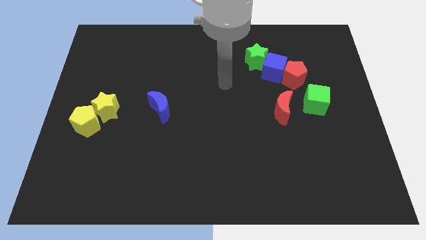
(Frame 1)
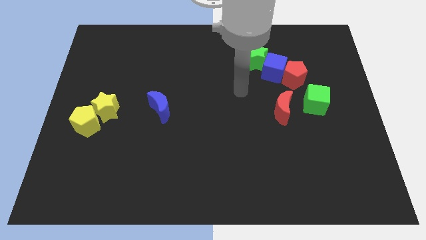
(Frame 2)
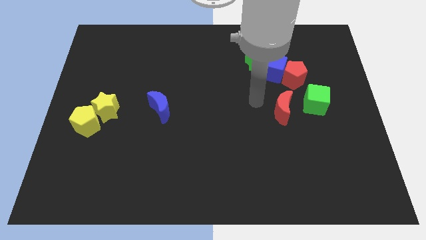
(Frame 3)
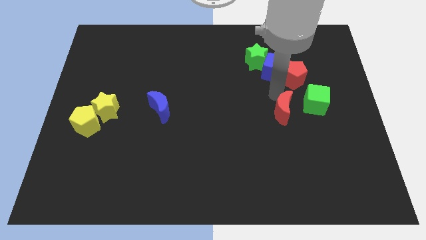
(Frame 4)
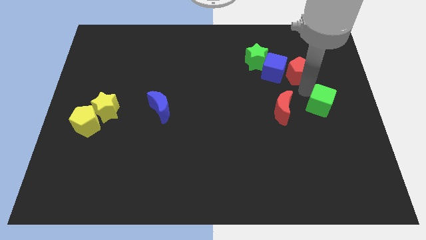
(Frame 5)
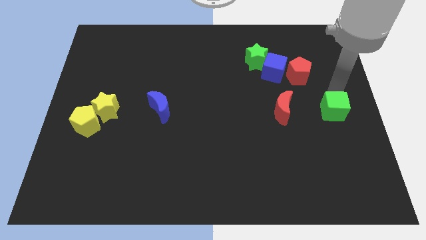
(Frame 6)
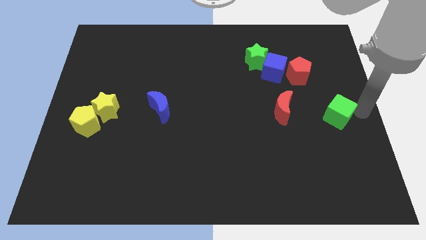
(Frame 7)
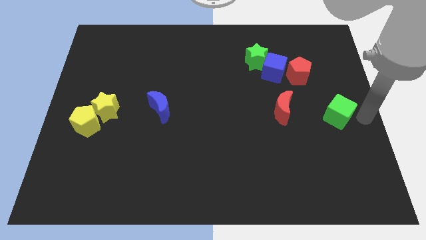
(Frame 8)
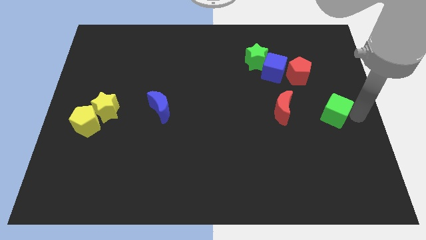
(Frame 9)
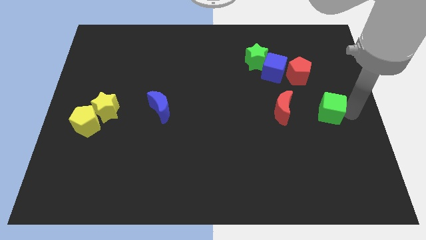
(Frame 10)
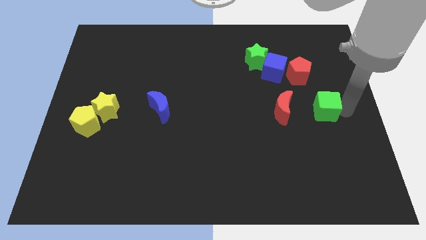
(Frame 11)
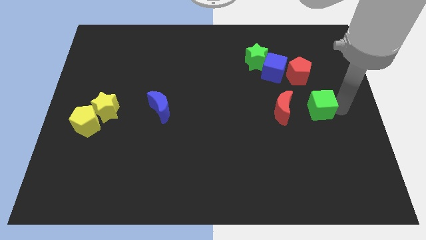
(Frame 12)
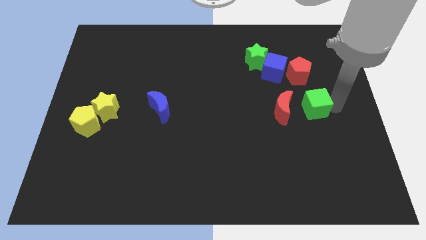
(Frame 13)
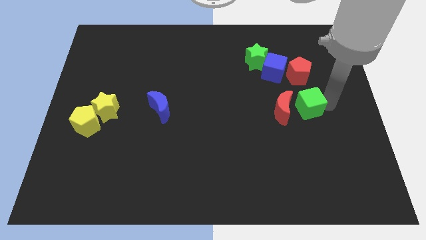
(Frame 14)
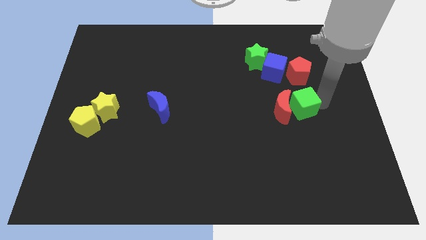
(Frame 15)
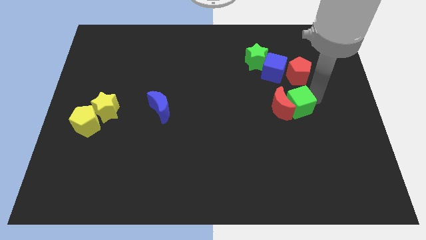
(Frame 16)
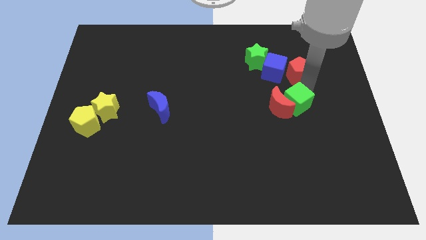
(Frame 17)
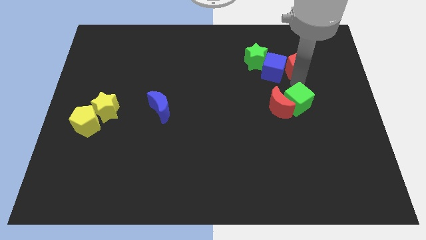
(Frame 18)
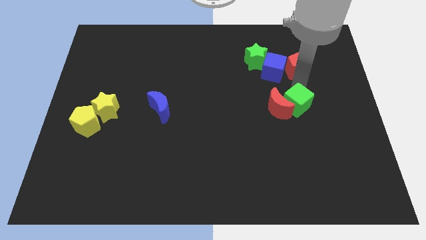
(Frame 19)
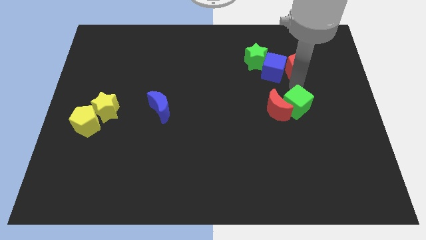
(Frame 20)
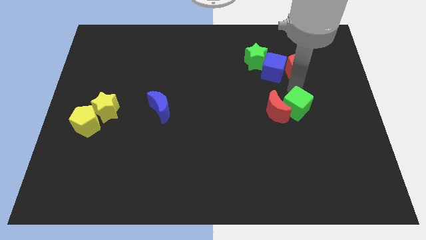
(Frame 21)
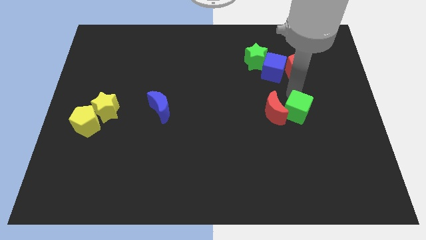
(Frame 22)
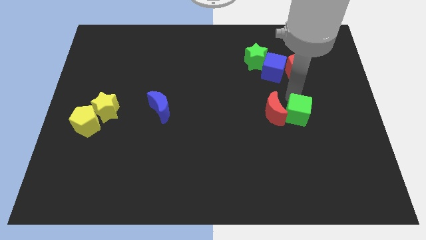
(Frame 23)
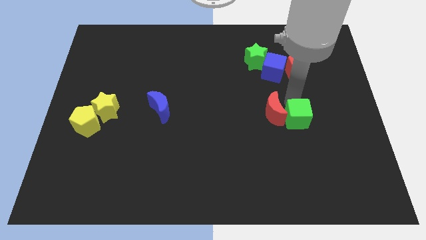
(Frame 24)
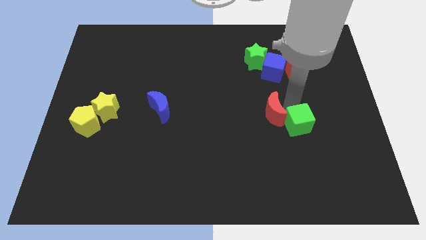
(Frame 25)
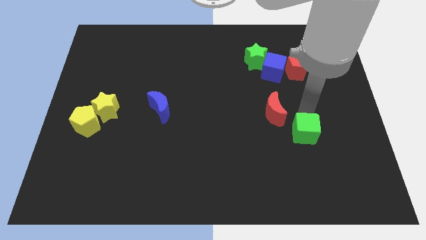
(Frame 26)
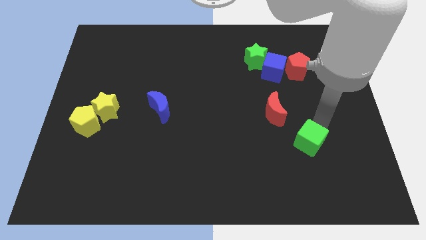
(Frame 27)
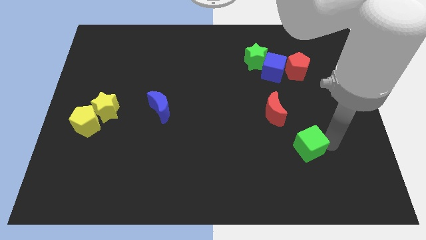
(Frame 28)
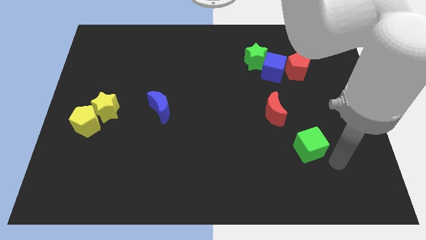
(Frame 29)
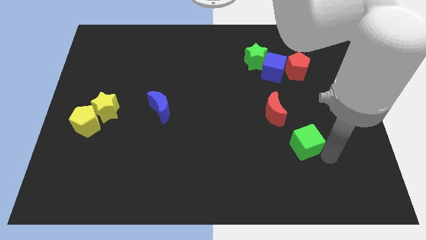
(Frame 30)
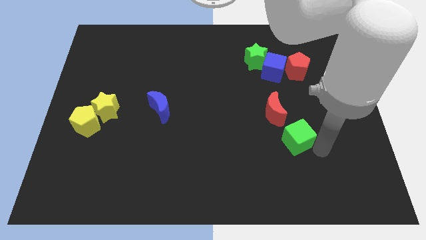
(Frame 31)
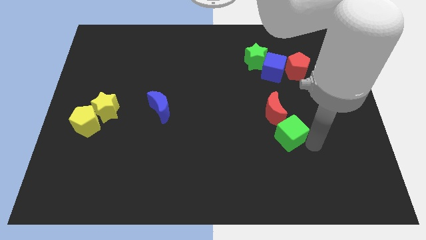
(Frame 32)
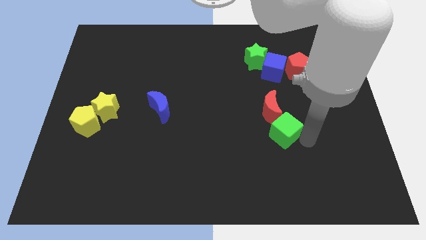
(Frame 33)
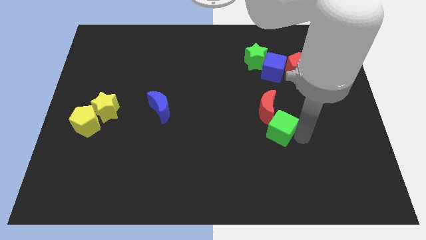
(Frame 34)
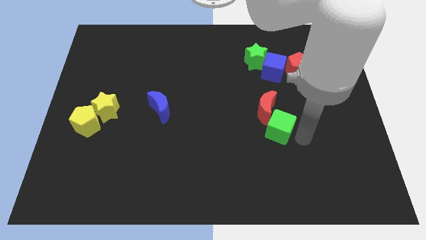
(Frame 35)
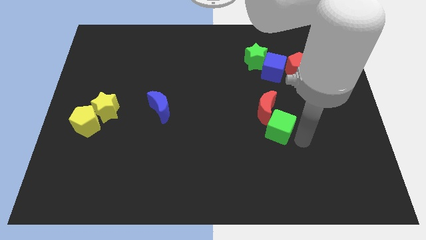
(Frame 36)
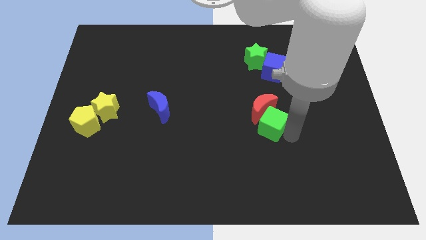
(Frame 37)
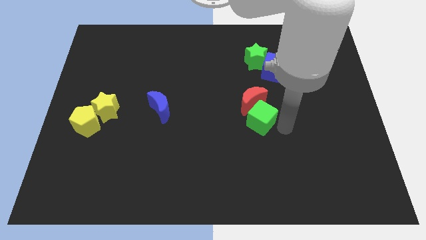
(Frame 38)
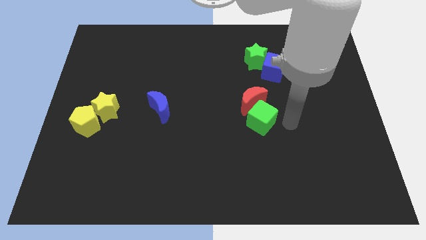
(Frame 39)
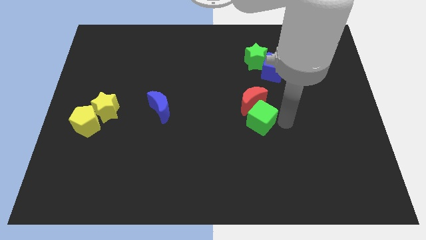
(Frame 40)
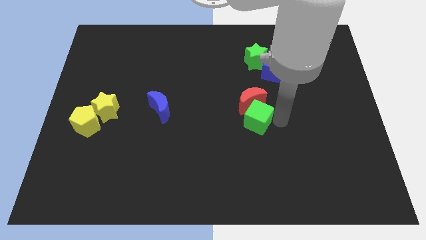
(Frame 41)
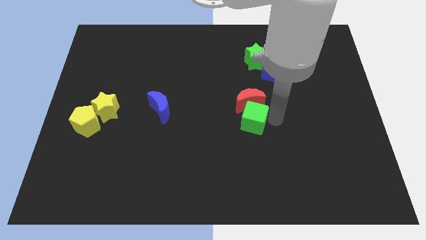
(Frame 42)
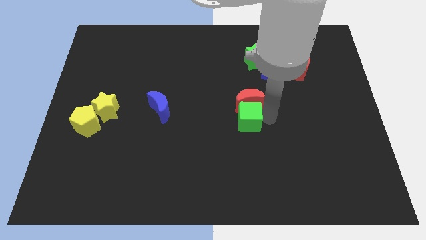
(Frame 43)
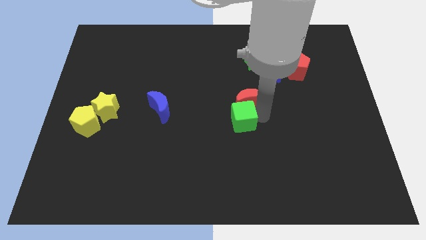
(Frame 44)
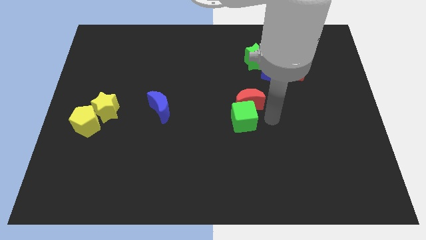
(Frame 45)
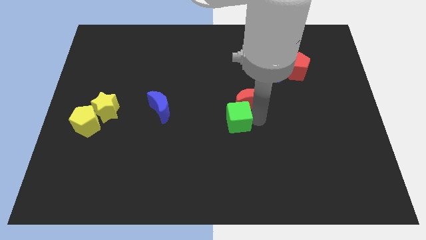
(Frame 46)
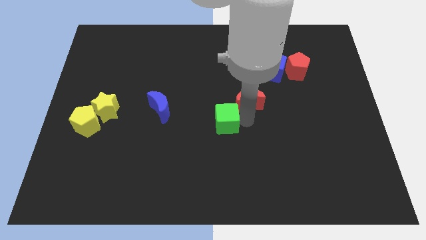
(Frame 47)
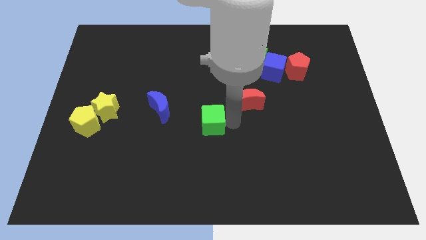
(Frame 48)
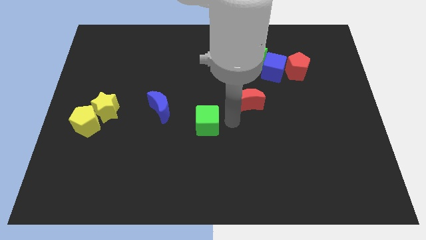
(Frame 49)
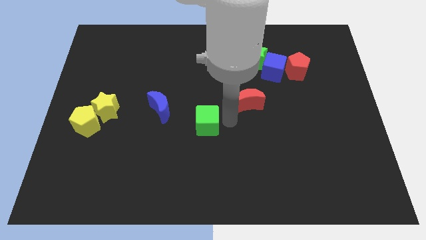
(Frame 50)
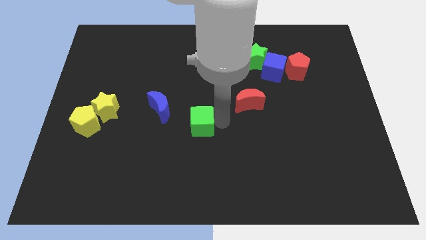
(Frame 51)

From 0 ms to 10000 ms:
push the green cube to the bottom right side of the blue moon

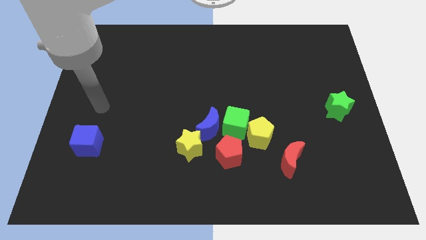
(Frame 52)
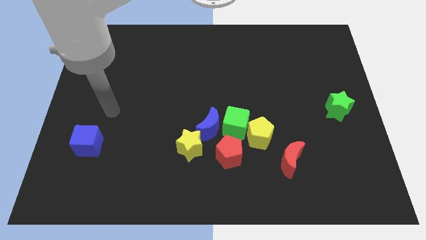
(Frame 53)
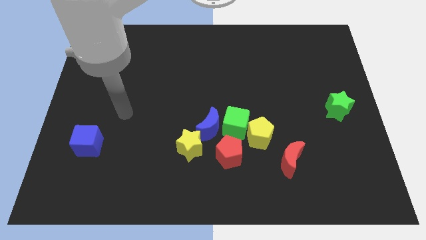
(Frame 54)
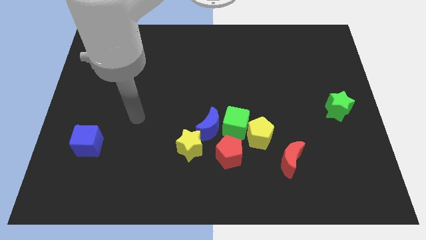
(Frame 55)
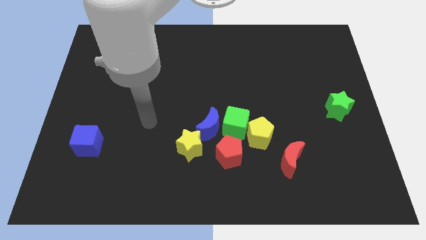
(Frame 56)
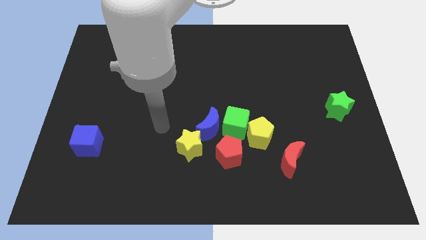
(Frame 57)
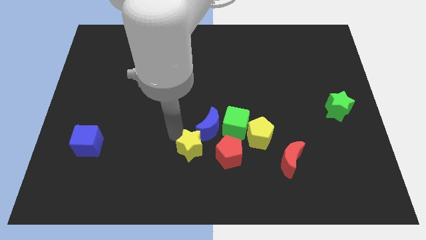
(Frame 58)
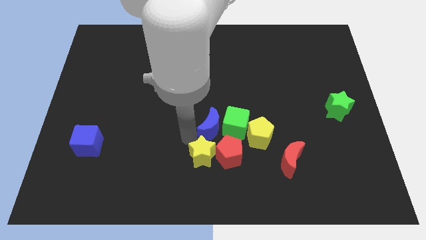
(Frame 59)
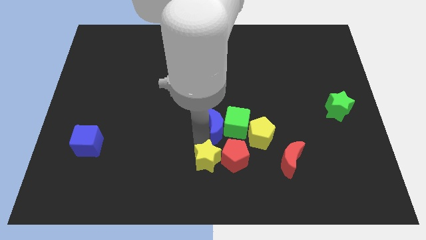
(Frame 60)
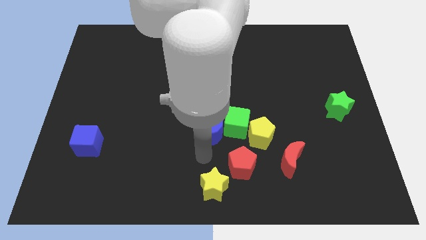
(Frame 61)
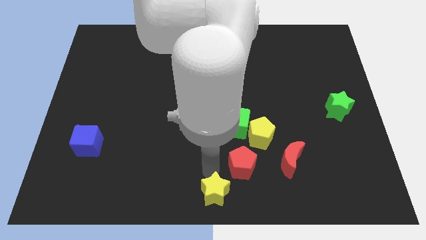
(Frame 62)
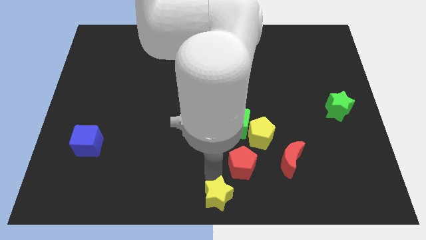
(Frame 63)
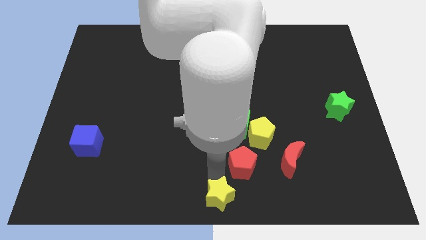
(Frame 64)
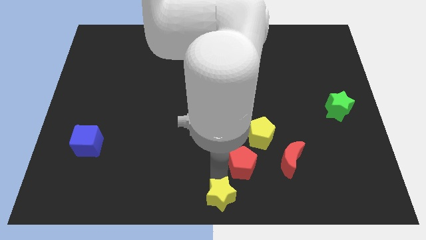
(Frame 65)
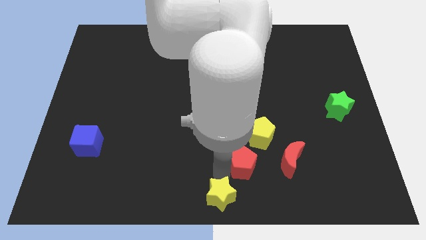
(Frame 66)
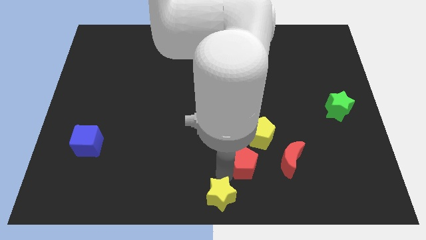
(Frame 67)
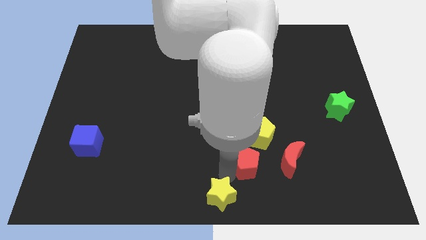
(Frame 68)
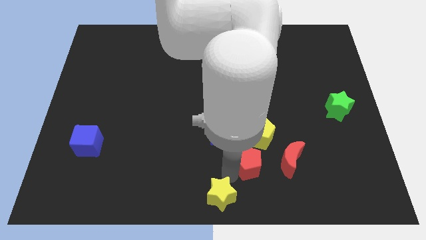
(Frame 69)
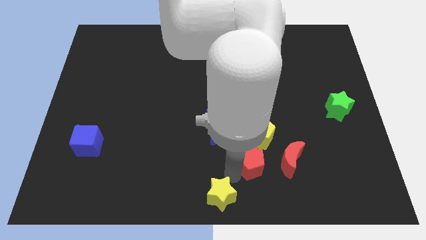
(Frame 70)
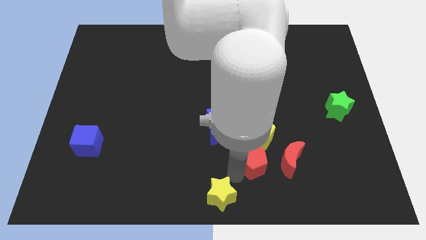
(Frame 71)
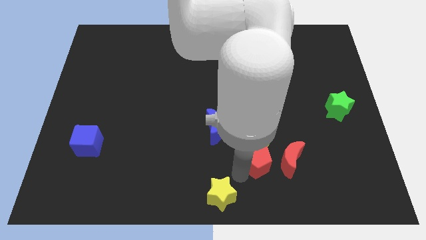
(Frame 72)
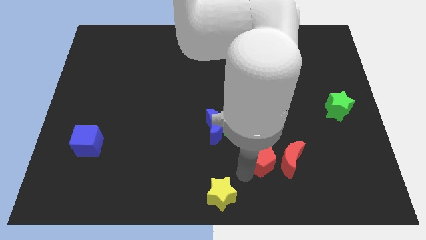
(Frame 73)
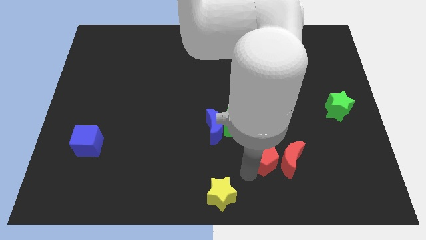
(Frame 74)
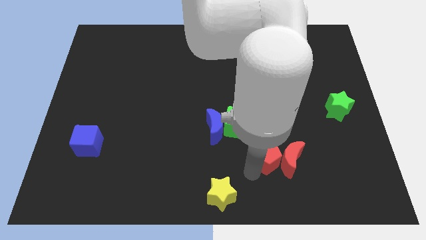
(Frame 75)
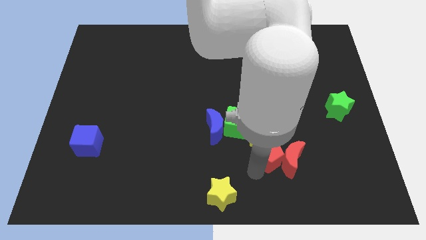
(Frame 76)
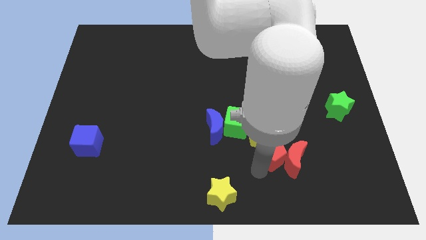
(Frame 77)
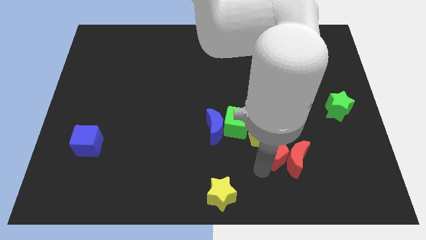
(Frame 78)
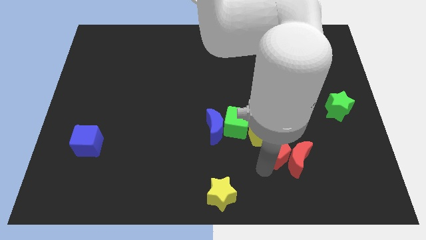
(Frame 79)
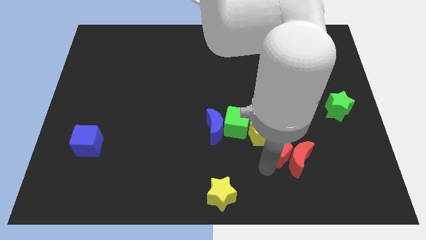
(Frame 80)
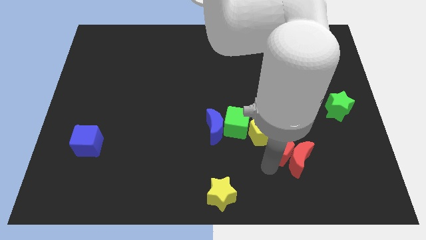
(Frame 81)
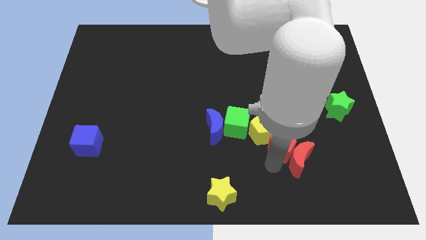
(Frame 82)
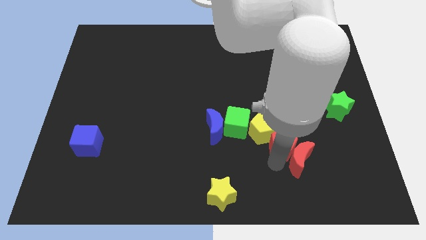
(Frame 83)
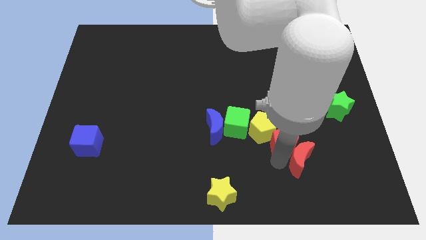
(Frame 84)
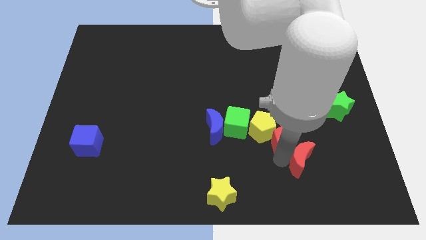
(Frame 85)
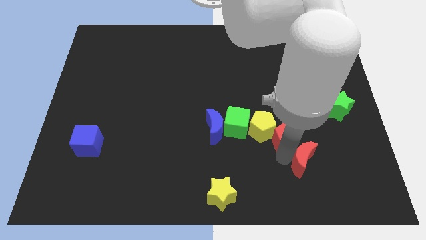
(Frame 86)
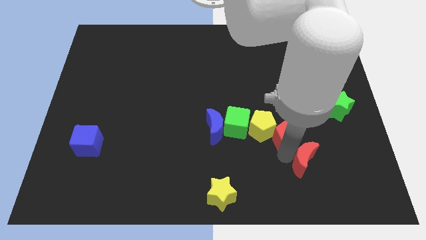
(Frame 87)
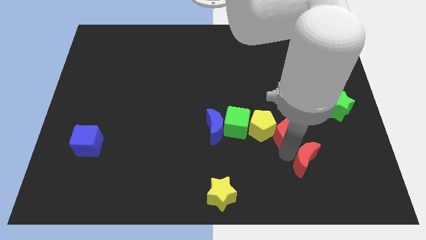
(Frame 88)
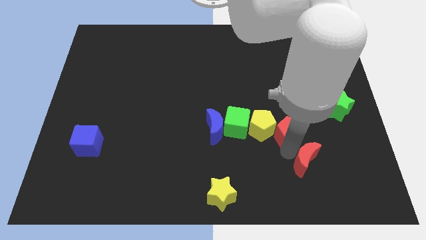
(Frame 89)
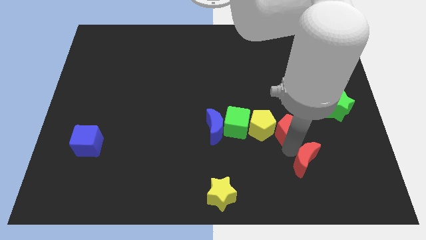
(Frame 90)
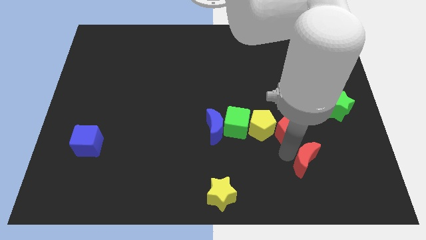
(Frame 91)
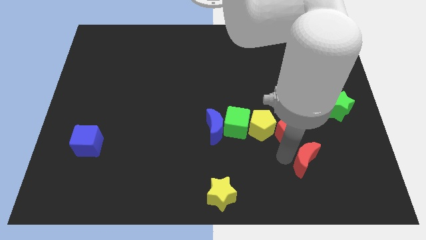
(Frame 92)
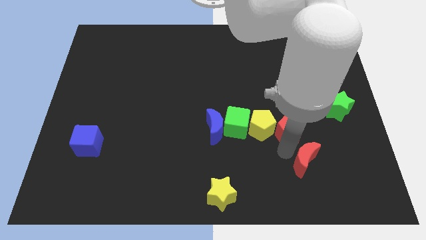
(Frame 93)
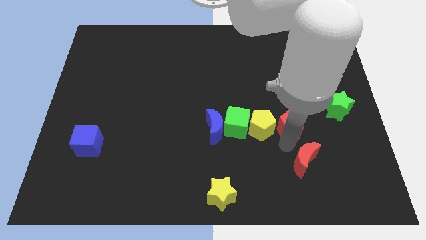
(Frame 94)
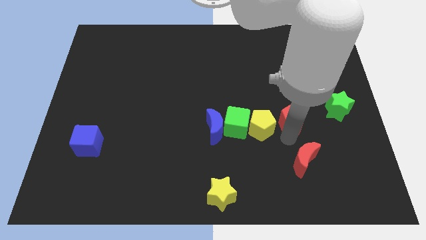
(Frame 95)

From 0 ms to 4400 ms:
put the red pentagon to the left side of the green star
